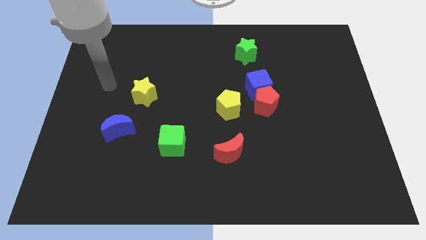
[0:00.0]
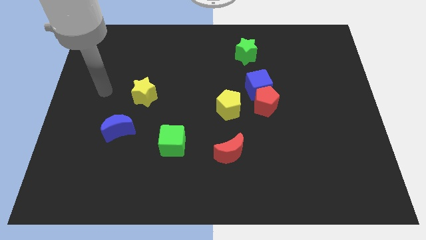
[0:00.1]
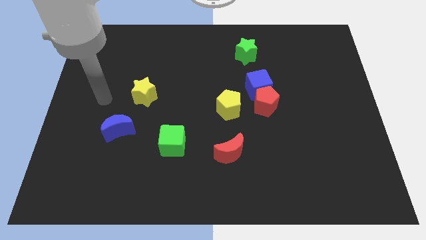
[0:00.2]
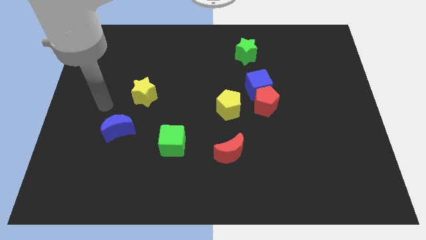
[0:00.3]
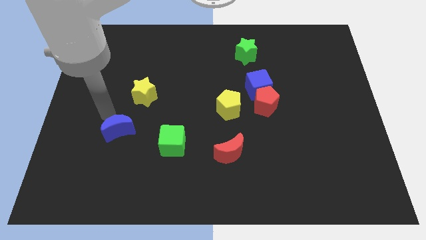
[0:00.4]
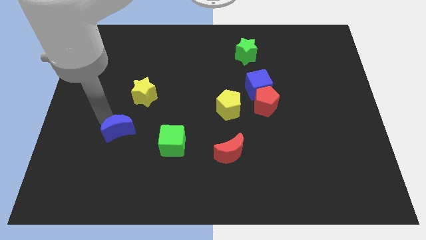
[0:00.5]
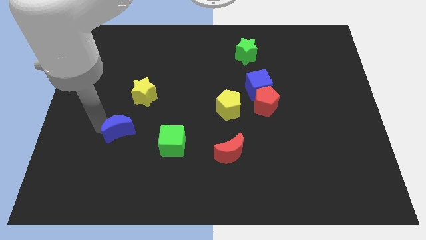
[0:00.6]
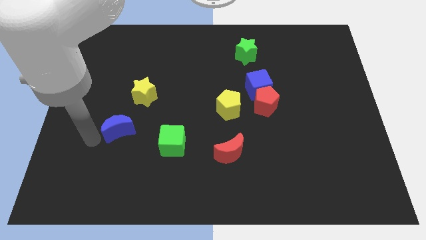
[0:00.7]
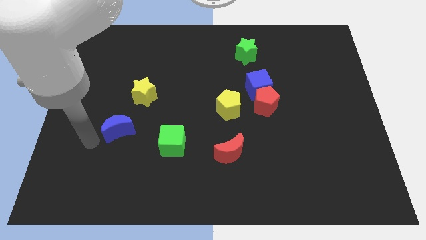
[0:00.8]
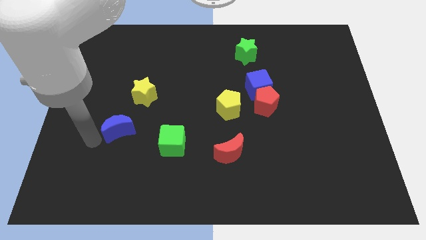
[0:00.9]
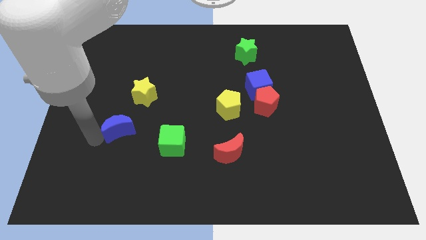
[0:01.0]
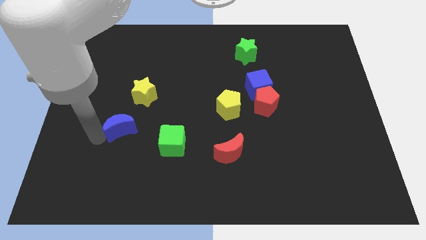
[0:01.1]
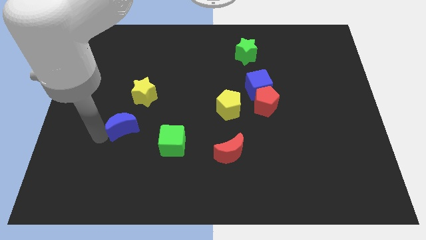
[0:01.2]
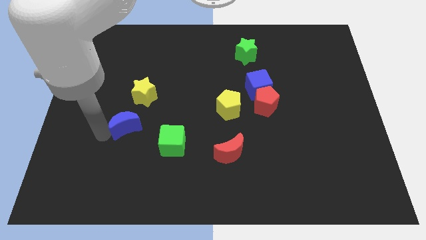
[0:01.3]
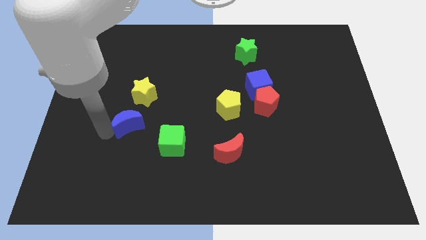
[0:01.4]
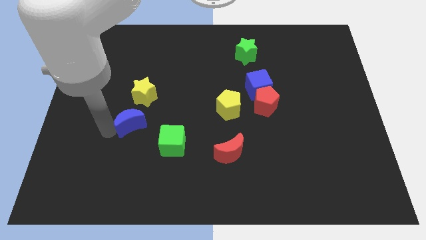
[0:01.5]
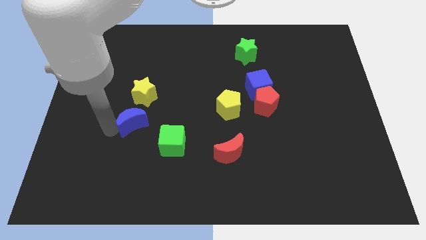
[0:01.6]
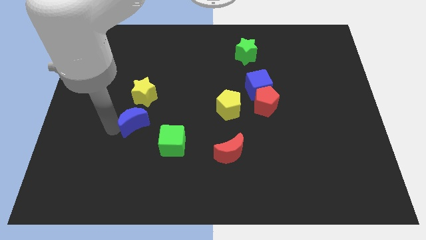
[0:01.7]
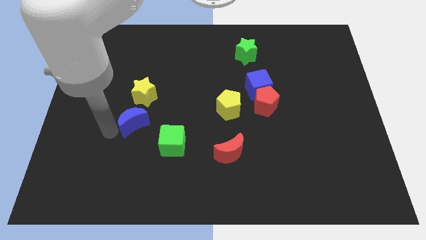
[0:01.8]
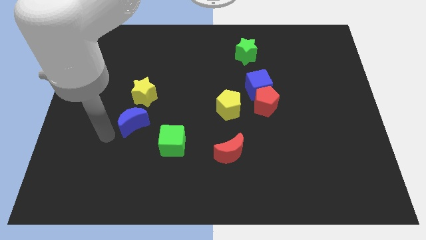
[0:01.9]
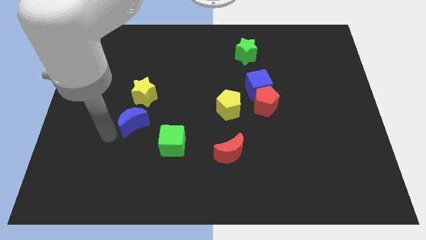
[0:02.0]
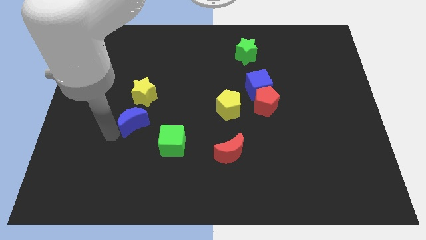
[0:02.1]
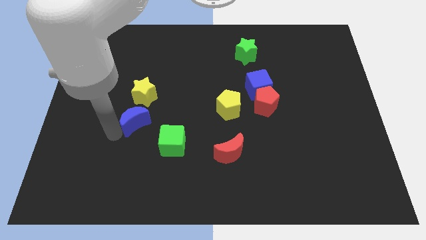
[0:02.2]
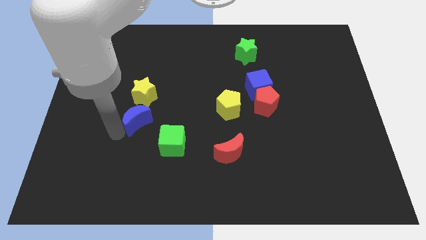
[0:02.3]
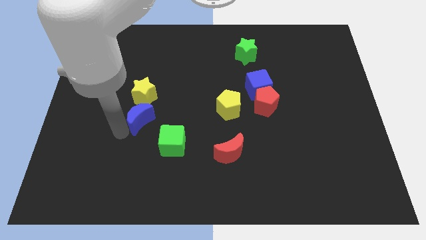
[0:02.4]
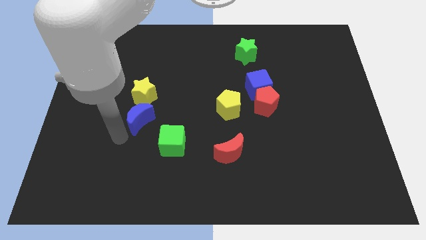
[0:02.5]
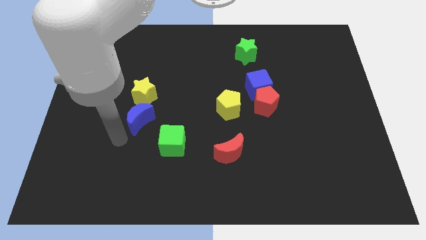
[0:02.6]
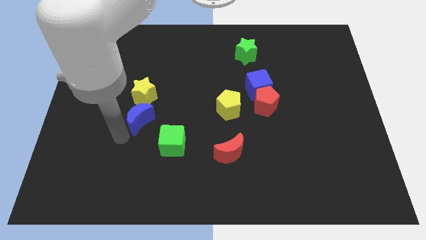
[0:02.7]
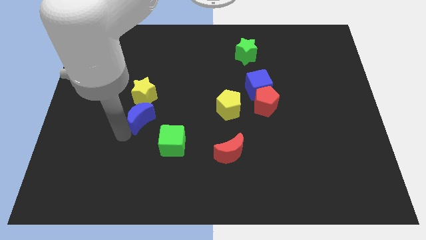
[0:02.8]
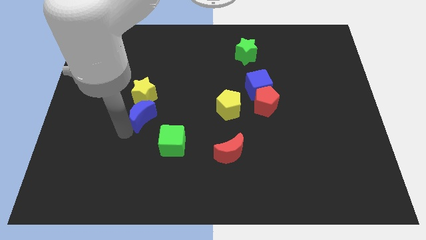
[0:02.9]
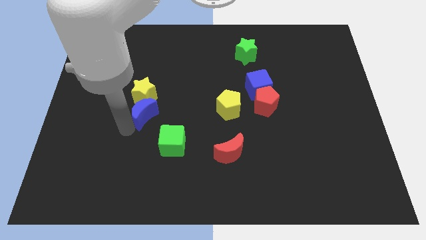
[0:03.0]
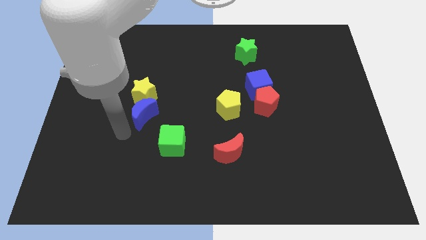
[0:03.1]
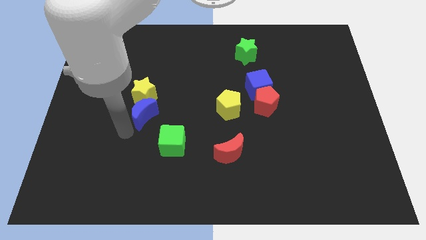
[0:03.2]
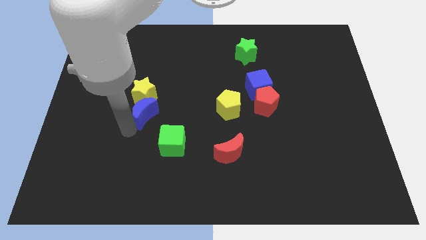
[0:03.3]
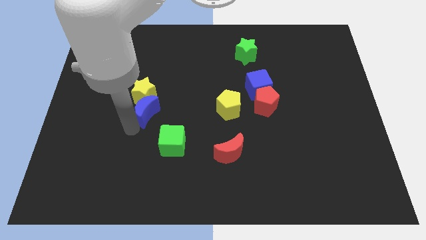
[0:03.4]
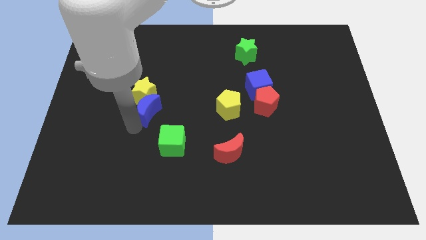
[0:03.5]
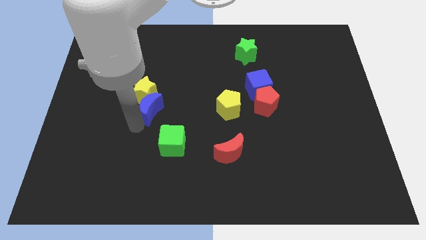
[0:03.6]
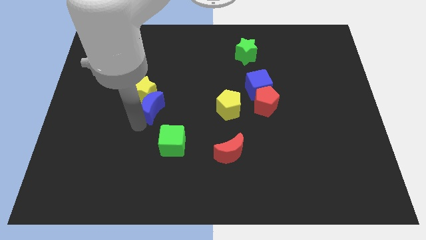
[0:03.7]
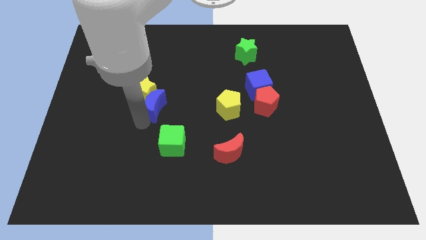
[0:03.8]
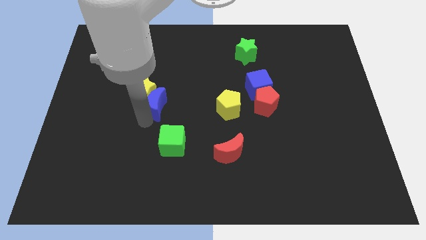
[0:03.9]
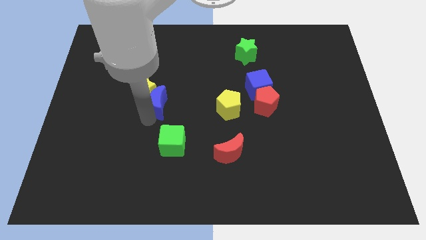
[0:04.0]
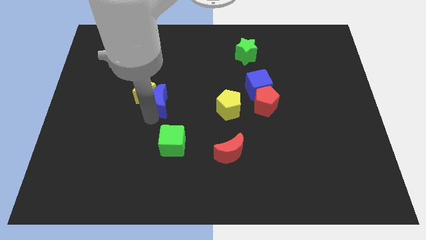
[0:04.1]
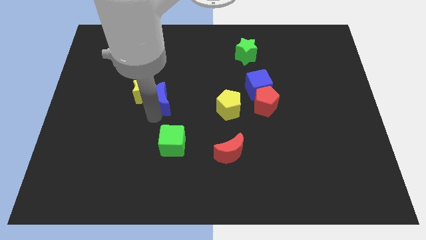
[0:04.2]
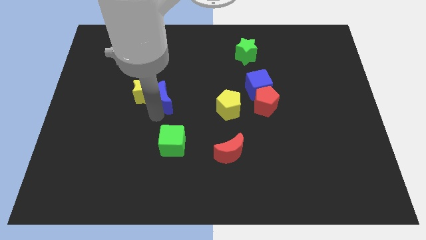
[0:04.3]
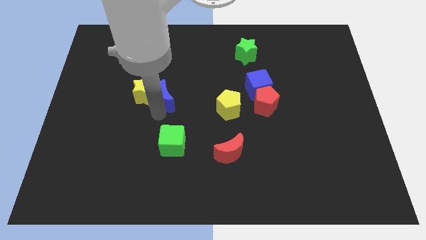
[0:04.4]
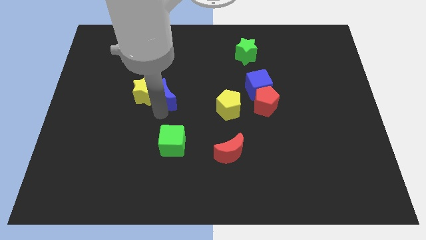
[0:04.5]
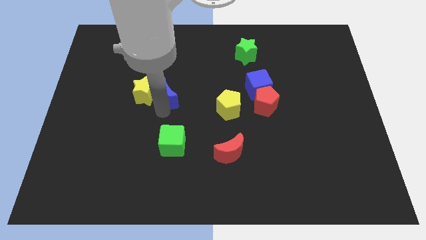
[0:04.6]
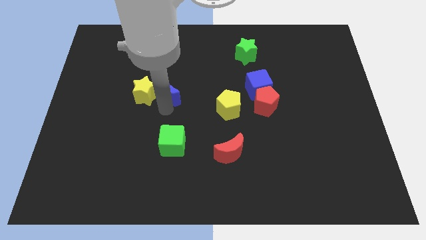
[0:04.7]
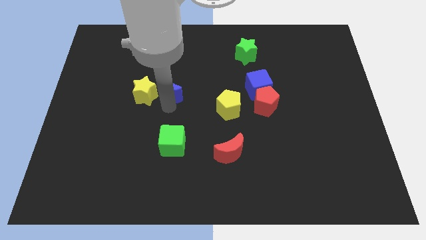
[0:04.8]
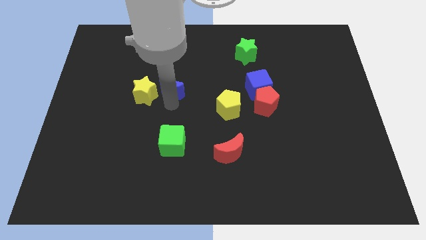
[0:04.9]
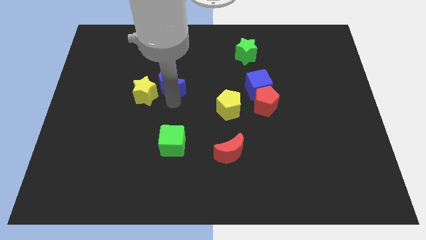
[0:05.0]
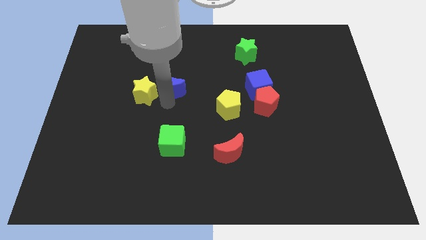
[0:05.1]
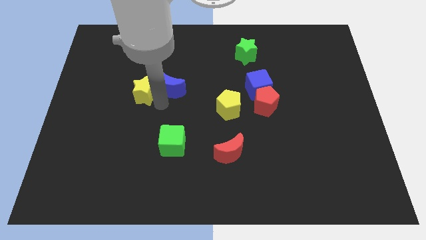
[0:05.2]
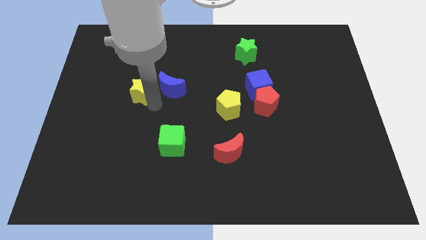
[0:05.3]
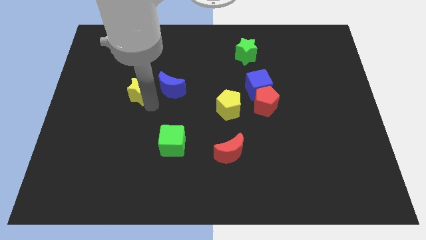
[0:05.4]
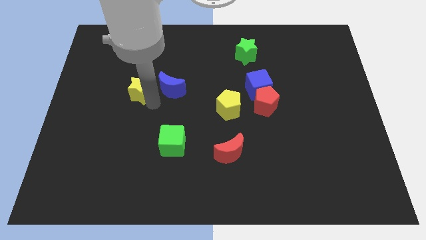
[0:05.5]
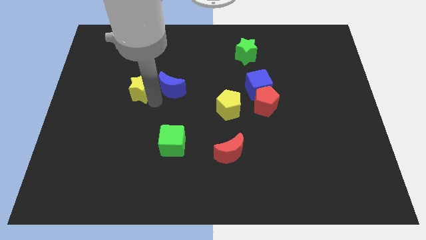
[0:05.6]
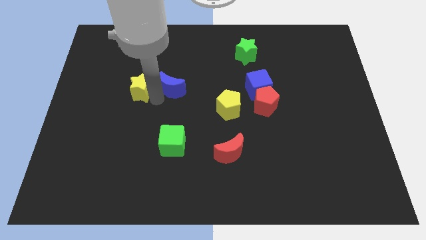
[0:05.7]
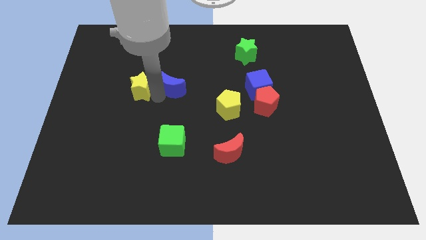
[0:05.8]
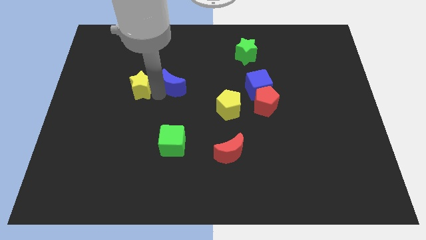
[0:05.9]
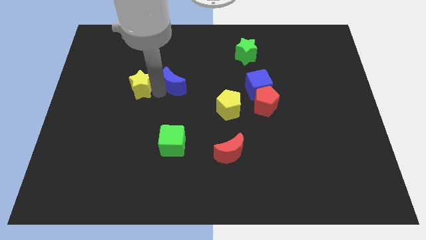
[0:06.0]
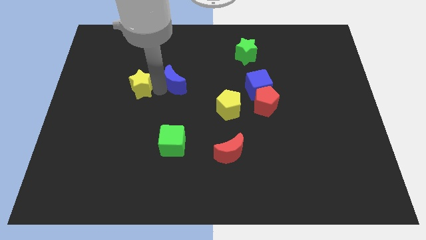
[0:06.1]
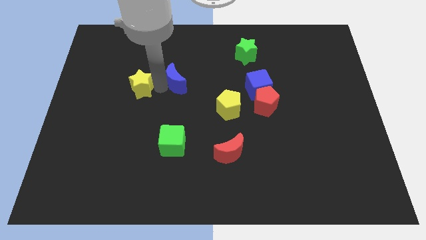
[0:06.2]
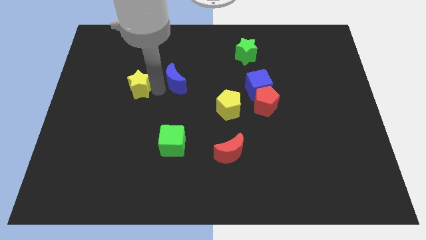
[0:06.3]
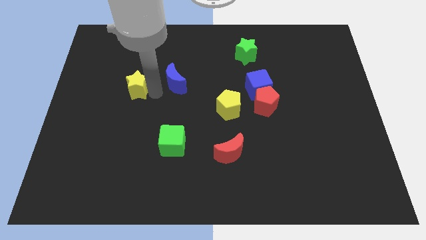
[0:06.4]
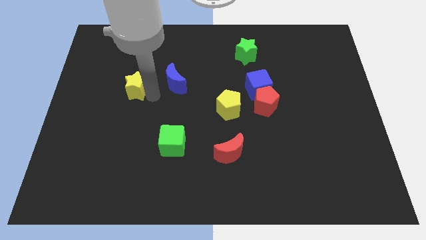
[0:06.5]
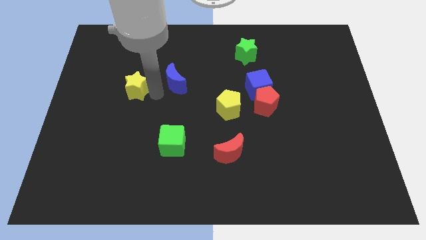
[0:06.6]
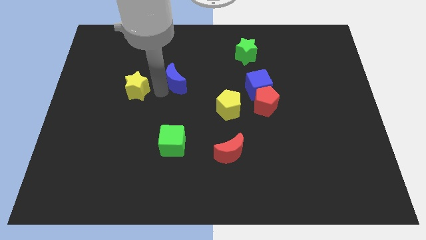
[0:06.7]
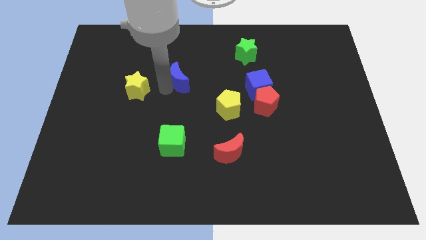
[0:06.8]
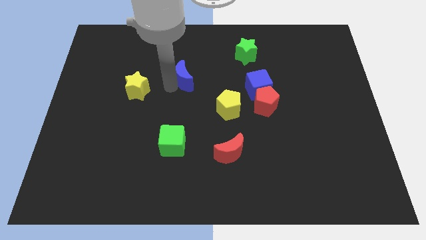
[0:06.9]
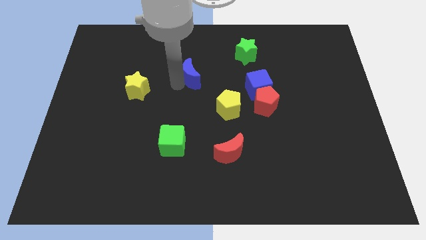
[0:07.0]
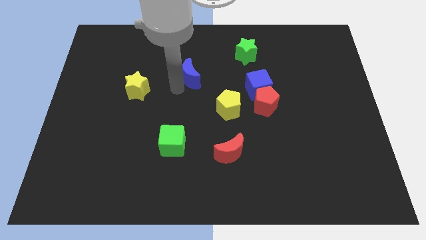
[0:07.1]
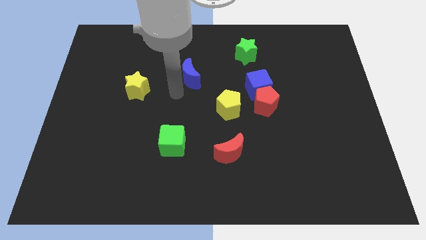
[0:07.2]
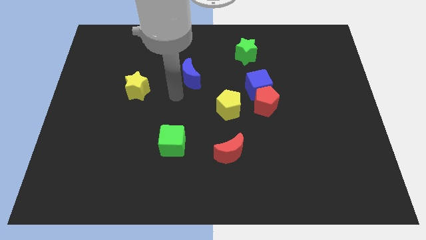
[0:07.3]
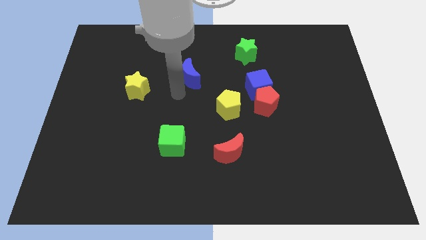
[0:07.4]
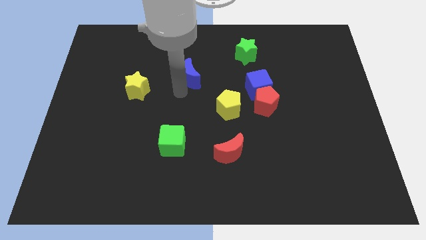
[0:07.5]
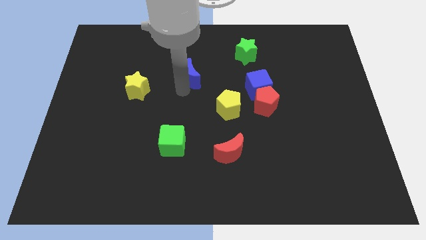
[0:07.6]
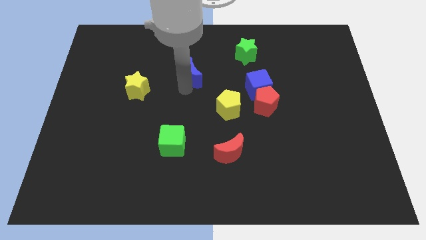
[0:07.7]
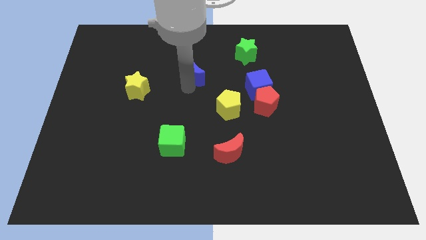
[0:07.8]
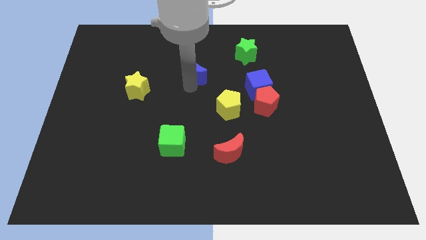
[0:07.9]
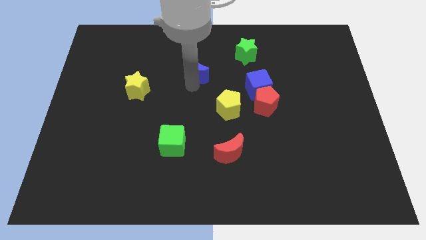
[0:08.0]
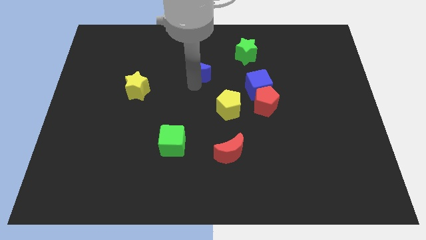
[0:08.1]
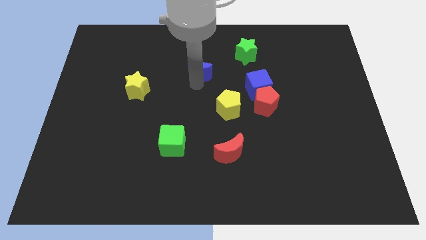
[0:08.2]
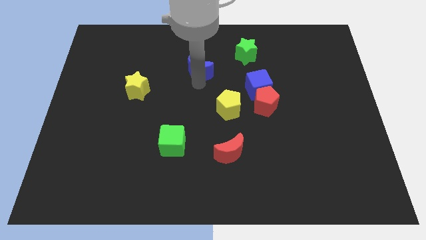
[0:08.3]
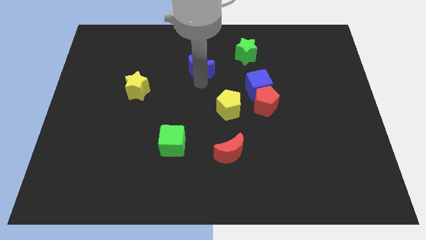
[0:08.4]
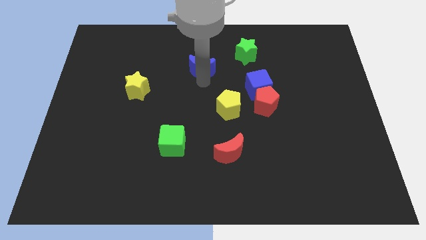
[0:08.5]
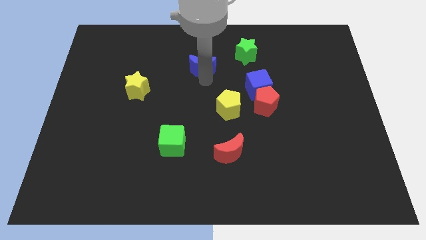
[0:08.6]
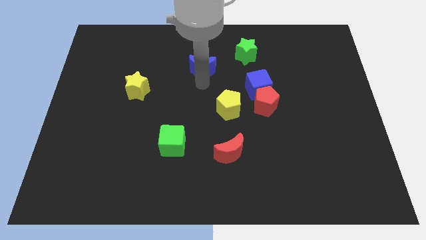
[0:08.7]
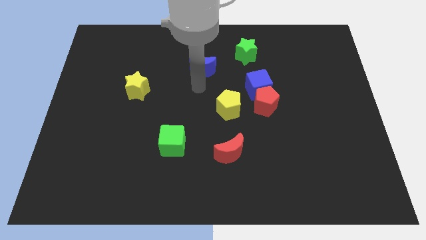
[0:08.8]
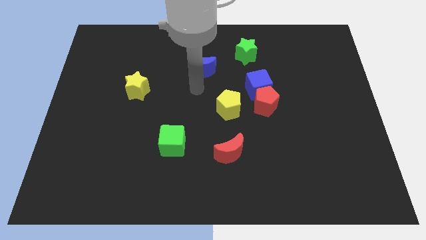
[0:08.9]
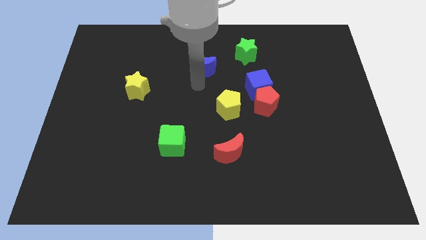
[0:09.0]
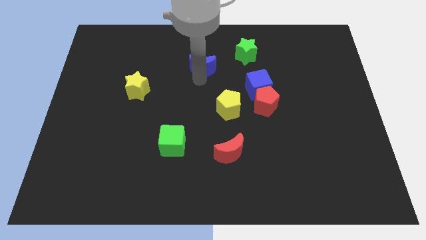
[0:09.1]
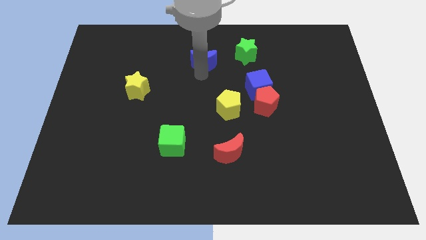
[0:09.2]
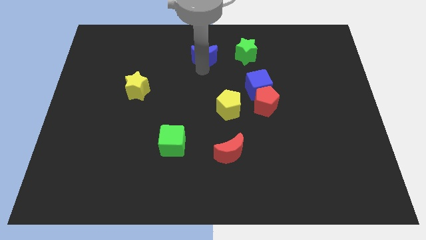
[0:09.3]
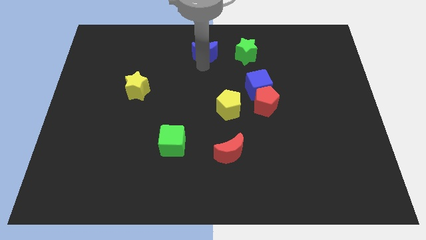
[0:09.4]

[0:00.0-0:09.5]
put the blue moon to the top
